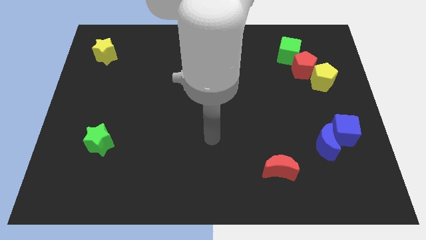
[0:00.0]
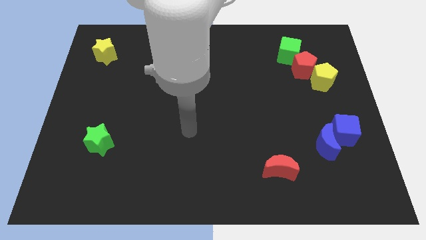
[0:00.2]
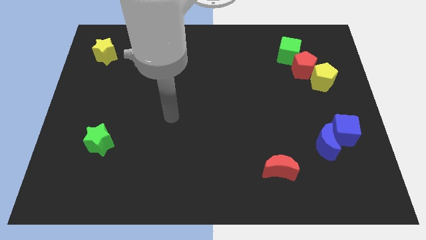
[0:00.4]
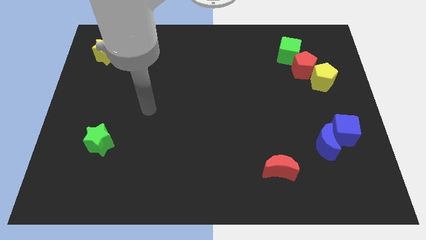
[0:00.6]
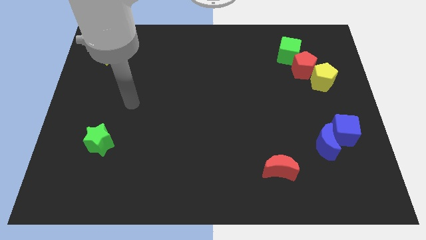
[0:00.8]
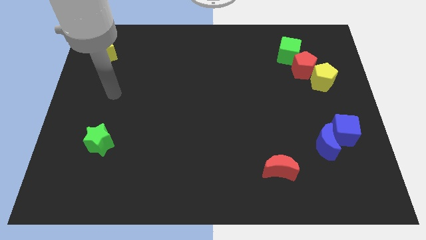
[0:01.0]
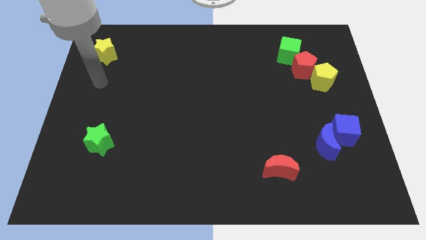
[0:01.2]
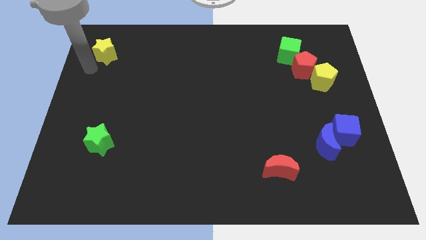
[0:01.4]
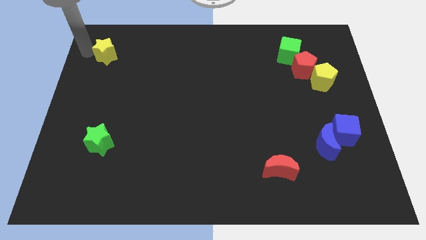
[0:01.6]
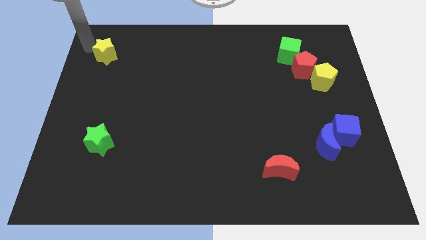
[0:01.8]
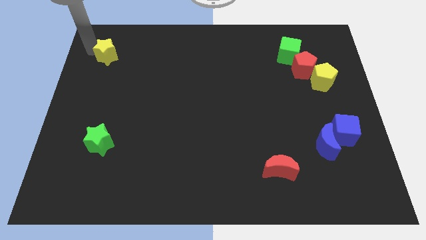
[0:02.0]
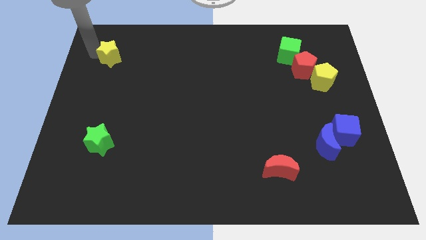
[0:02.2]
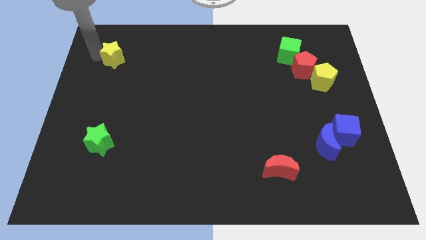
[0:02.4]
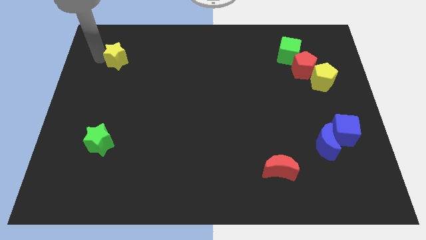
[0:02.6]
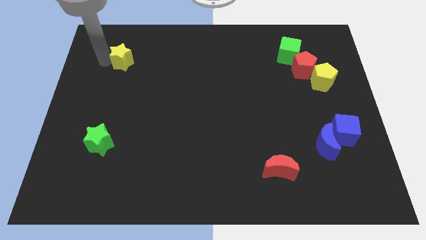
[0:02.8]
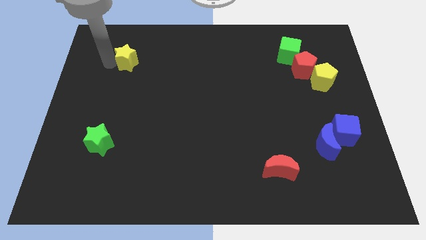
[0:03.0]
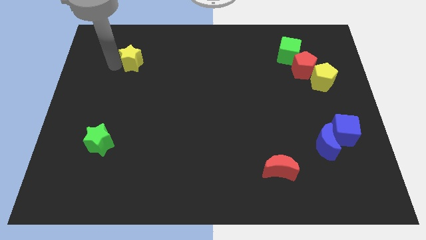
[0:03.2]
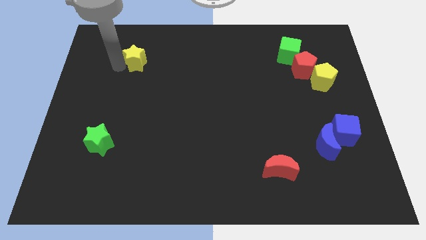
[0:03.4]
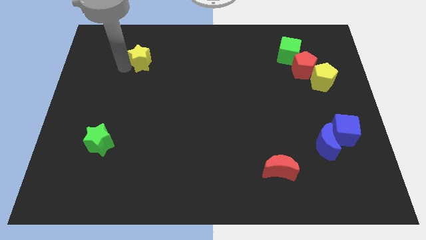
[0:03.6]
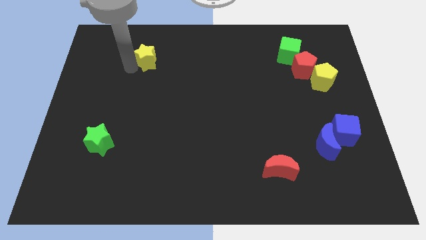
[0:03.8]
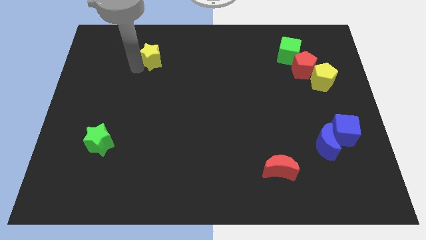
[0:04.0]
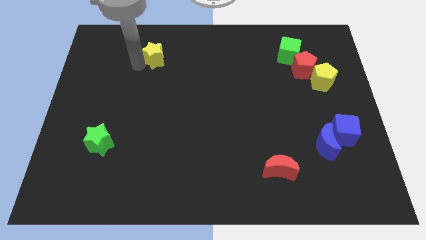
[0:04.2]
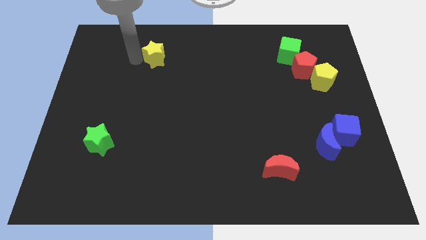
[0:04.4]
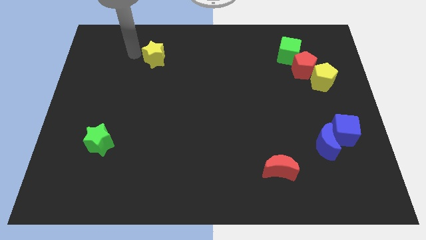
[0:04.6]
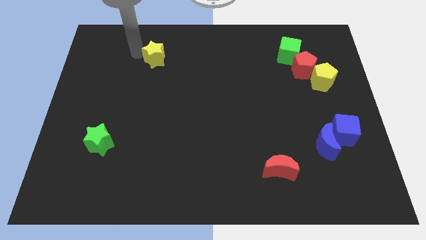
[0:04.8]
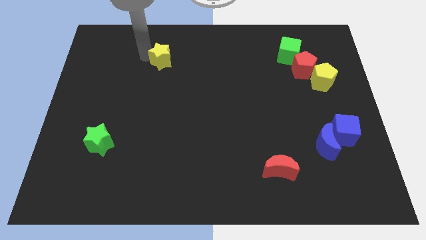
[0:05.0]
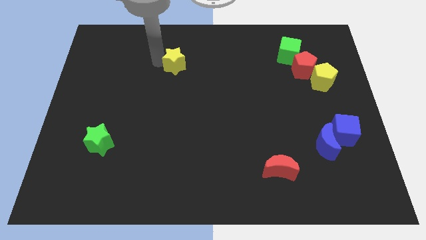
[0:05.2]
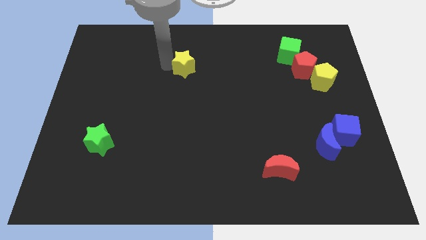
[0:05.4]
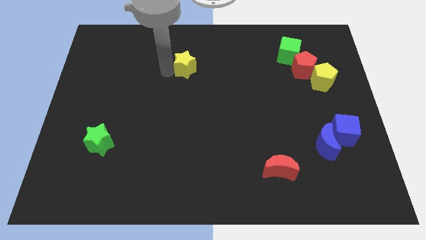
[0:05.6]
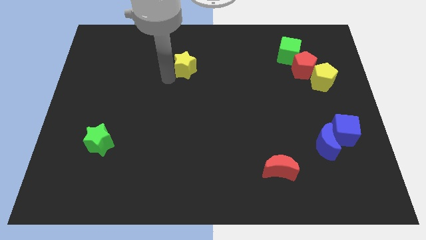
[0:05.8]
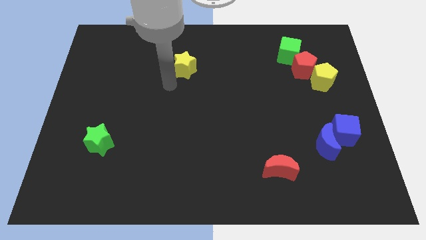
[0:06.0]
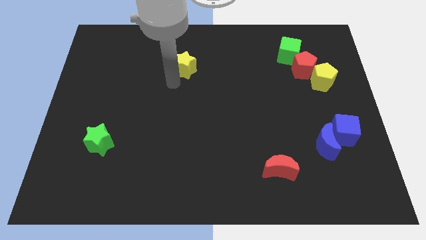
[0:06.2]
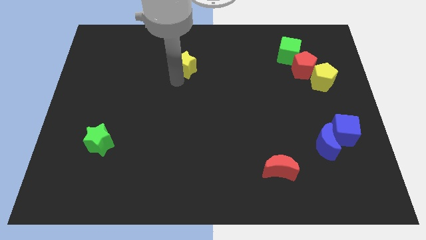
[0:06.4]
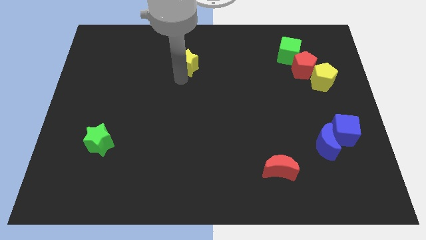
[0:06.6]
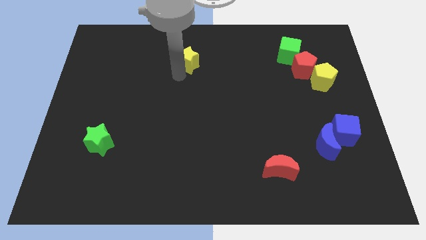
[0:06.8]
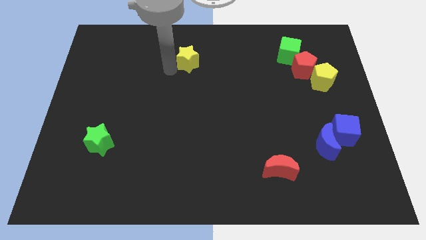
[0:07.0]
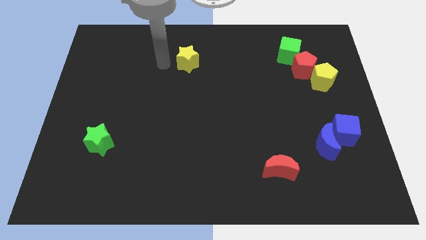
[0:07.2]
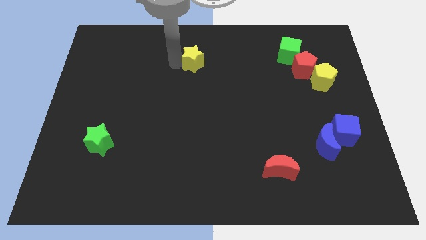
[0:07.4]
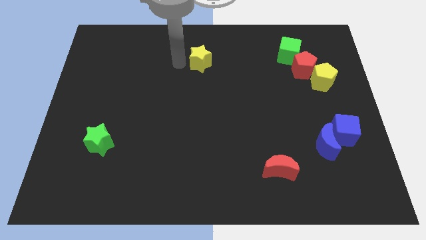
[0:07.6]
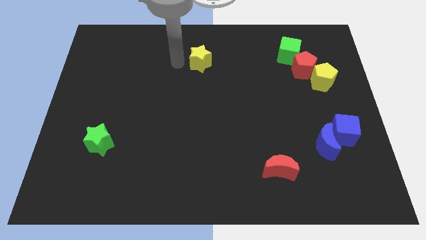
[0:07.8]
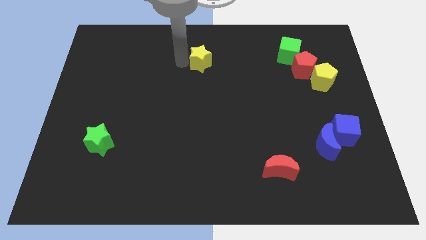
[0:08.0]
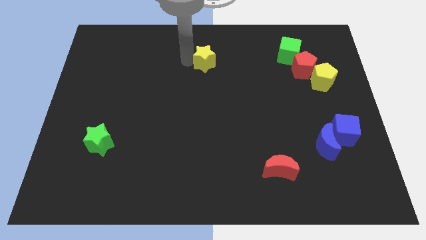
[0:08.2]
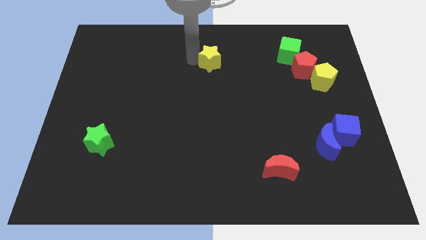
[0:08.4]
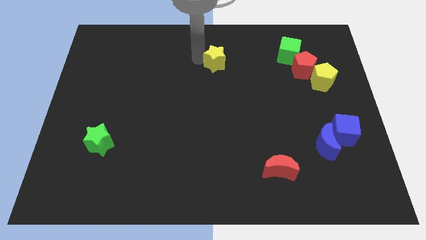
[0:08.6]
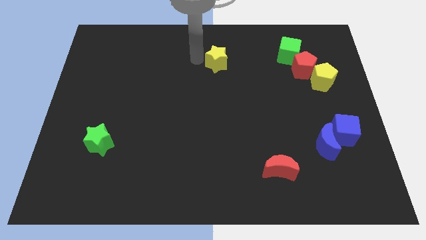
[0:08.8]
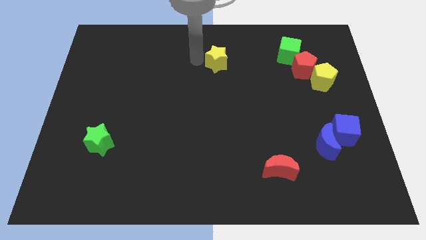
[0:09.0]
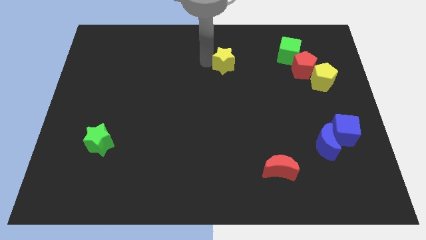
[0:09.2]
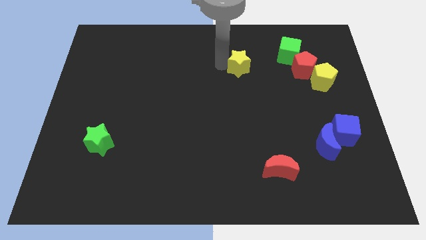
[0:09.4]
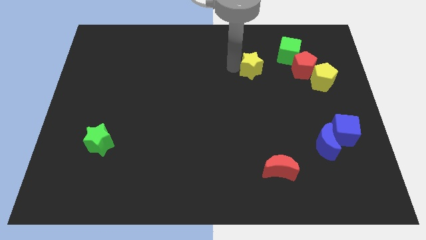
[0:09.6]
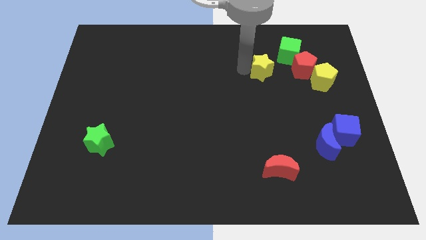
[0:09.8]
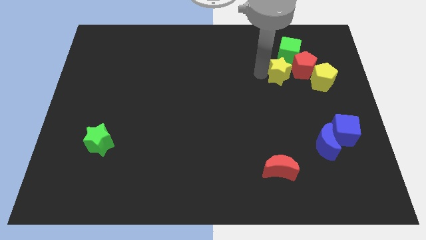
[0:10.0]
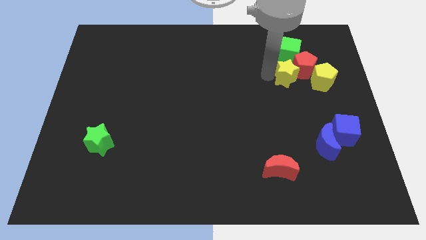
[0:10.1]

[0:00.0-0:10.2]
push the yellow star to the red pentagon

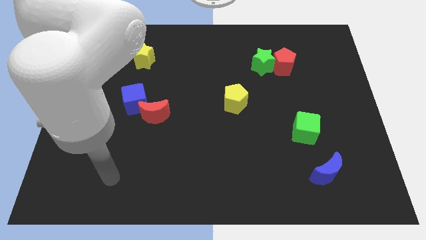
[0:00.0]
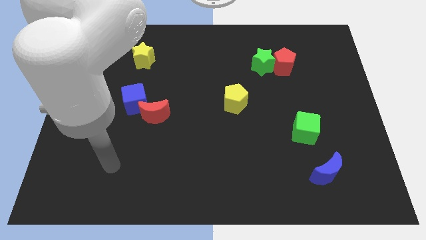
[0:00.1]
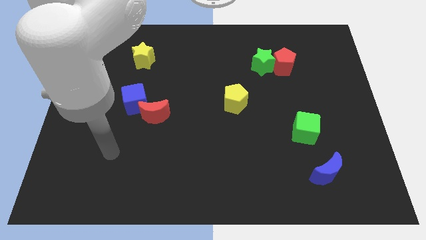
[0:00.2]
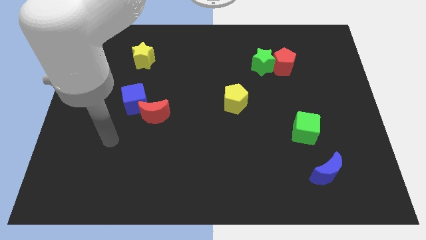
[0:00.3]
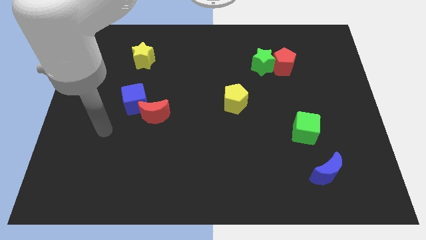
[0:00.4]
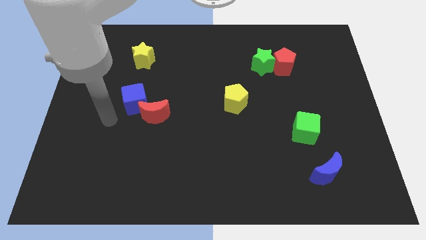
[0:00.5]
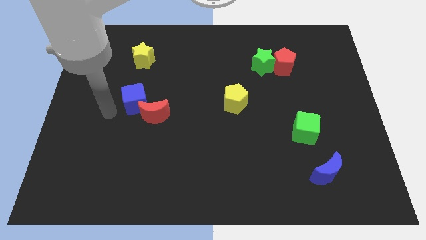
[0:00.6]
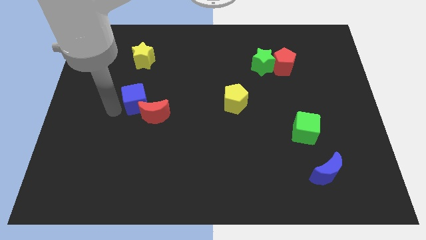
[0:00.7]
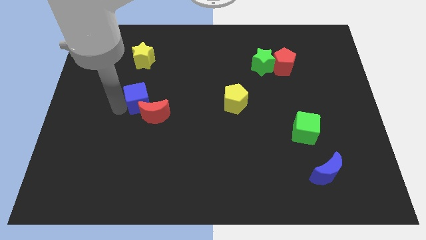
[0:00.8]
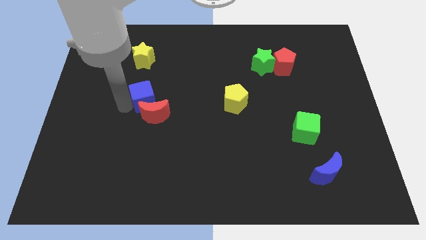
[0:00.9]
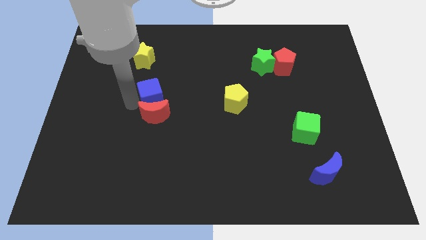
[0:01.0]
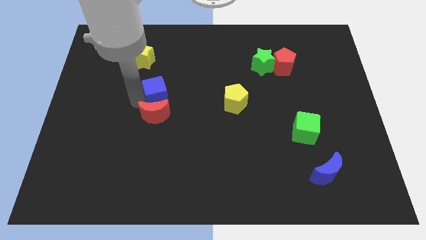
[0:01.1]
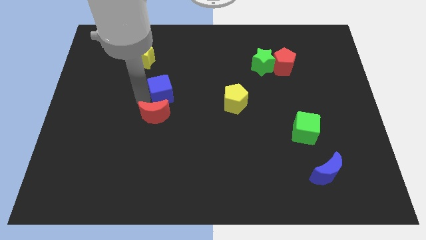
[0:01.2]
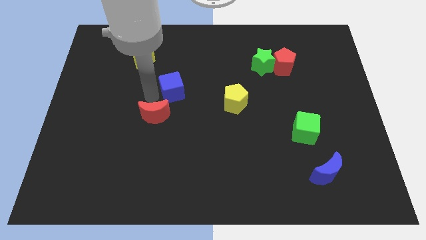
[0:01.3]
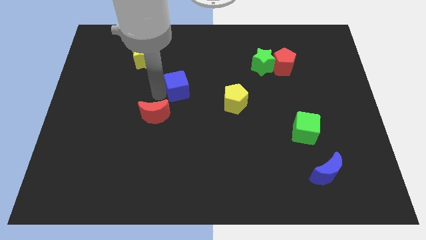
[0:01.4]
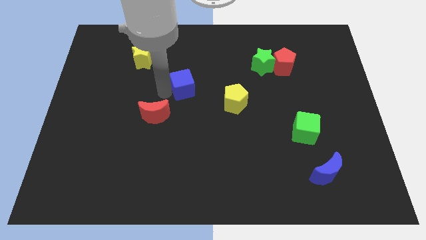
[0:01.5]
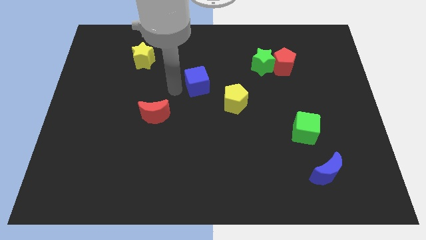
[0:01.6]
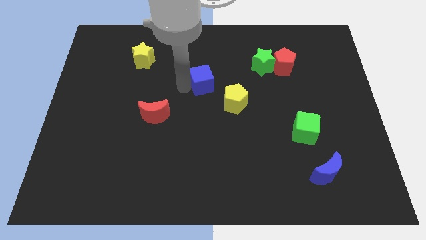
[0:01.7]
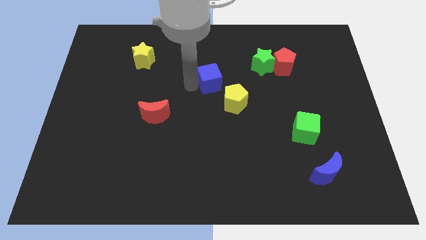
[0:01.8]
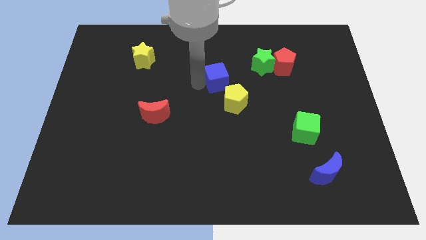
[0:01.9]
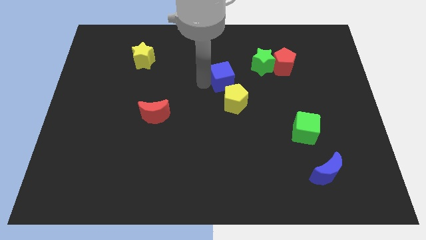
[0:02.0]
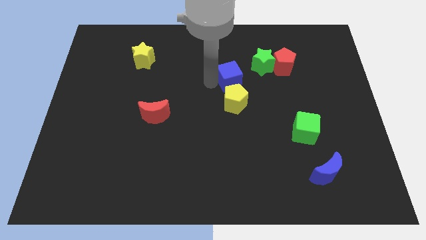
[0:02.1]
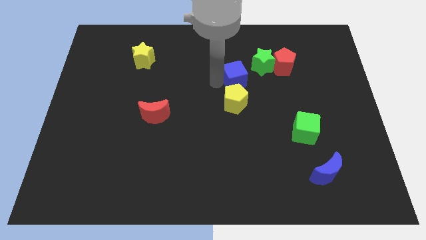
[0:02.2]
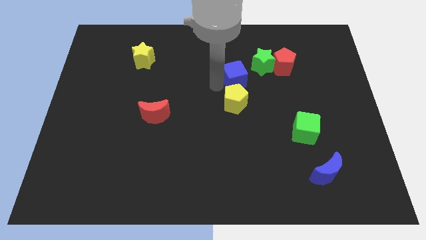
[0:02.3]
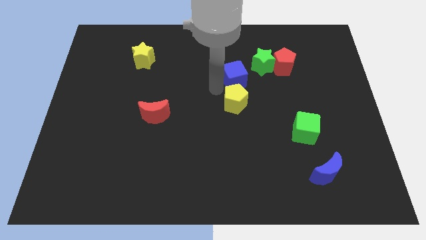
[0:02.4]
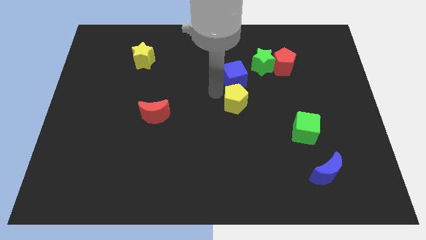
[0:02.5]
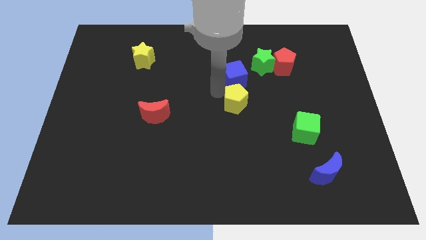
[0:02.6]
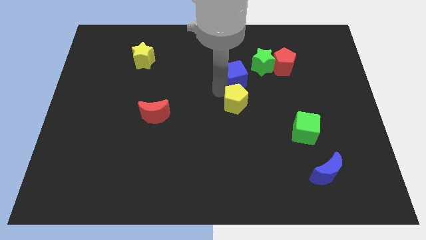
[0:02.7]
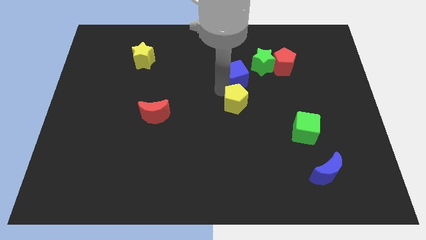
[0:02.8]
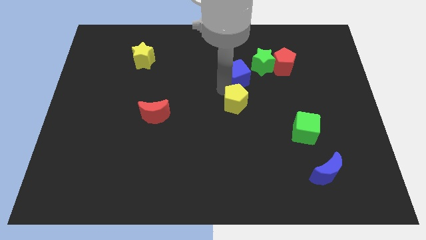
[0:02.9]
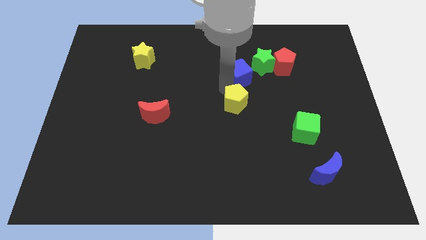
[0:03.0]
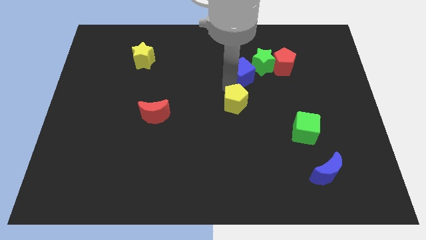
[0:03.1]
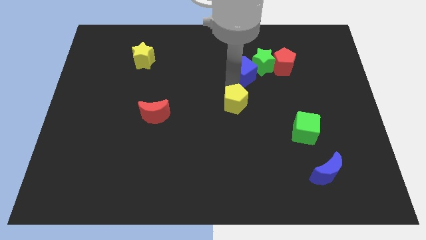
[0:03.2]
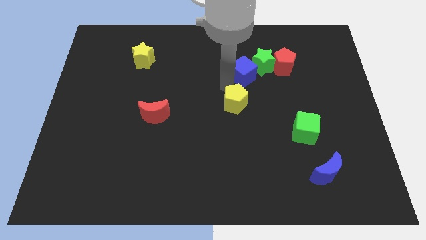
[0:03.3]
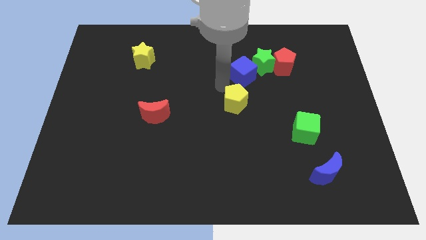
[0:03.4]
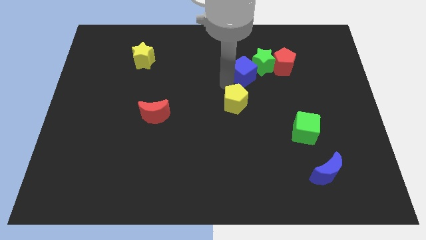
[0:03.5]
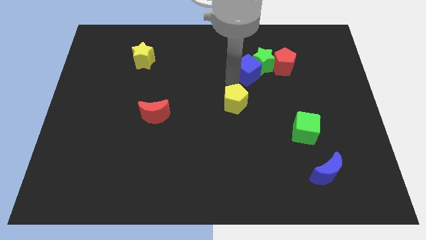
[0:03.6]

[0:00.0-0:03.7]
move the blue cube towards the green star
